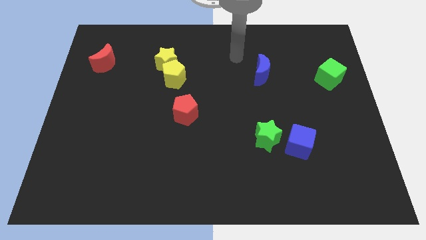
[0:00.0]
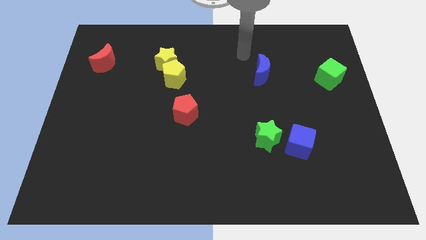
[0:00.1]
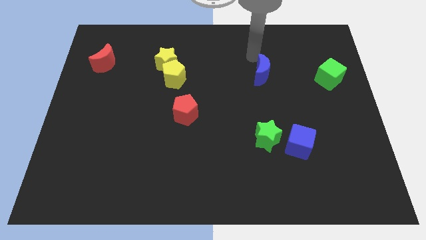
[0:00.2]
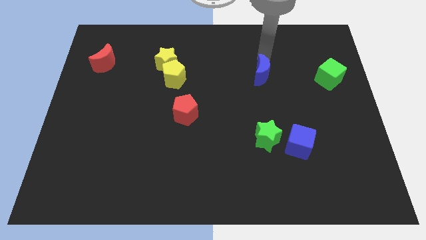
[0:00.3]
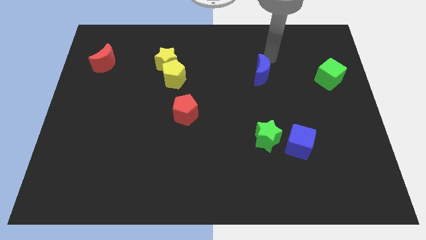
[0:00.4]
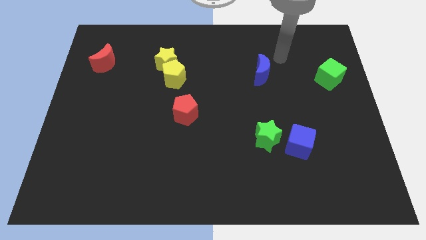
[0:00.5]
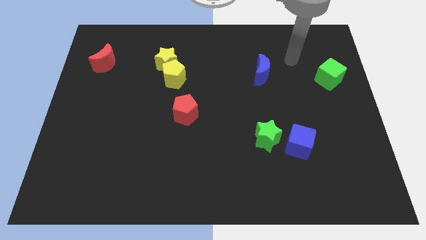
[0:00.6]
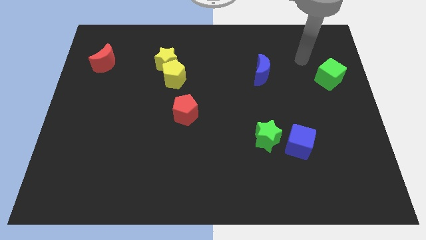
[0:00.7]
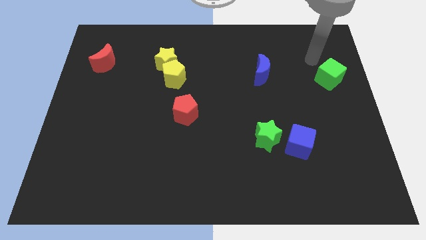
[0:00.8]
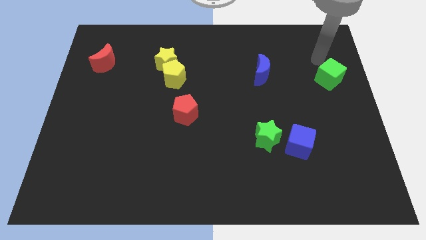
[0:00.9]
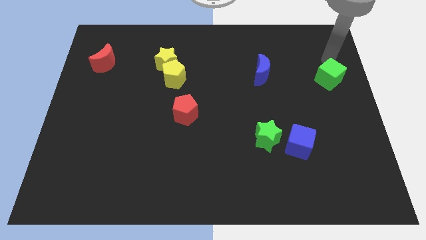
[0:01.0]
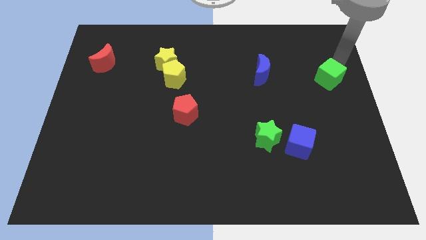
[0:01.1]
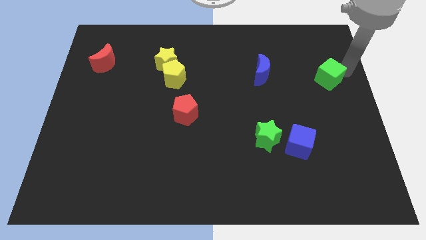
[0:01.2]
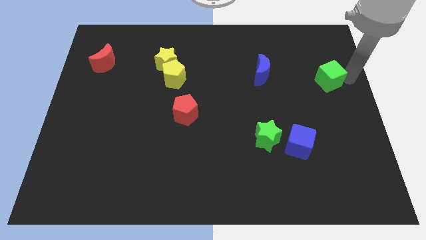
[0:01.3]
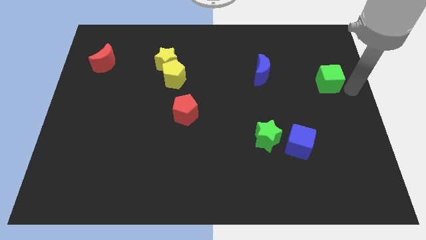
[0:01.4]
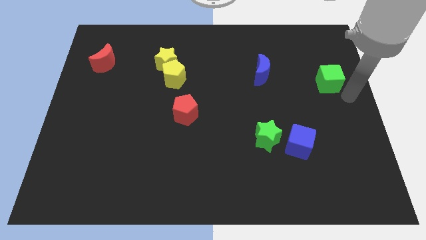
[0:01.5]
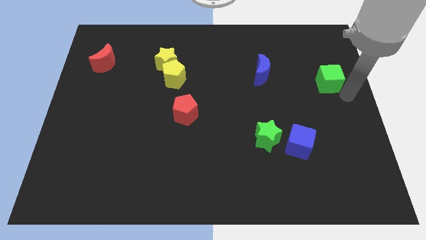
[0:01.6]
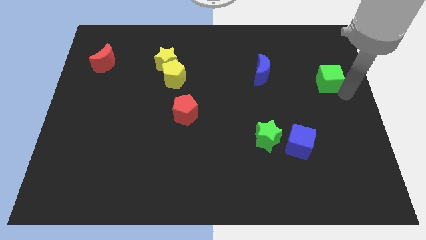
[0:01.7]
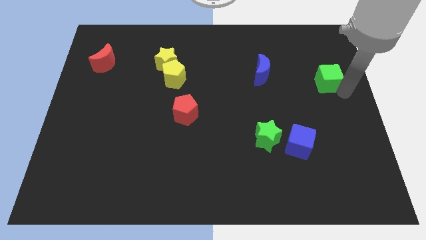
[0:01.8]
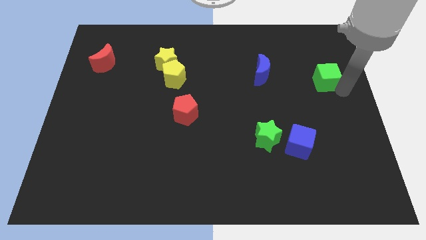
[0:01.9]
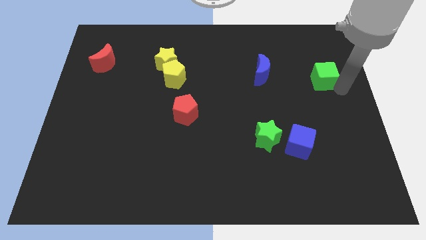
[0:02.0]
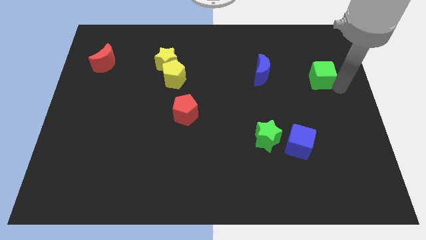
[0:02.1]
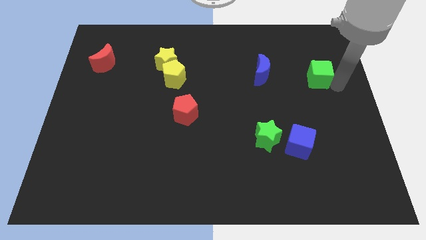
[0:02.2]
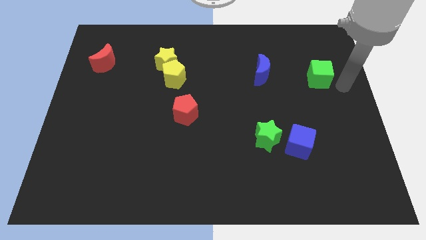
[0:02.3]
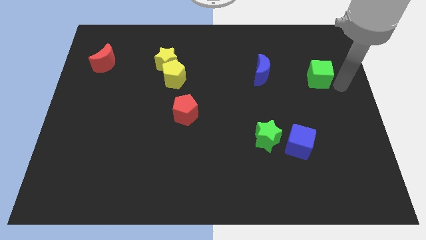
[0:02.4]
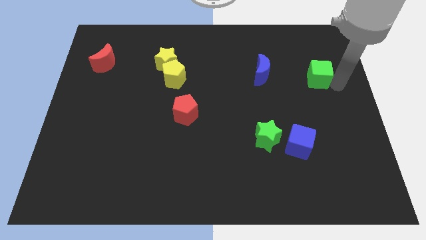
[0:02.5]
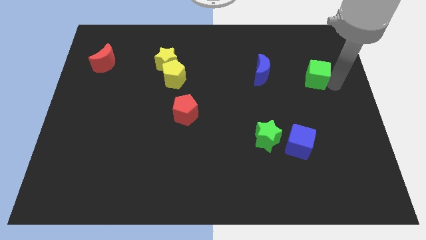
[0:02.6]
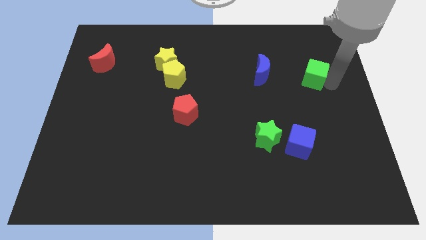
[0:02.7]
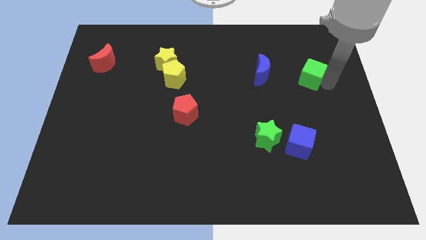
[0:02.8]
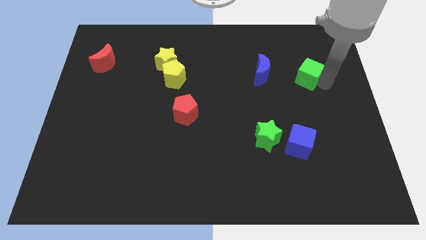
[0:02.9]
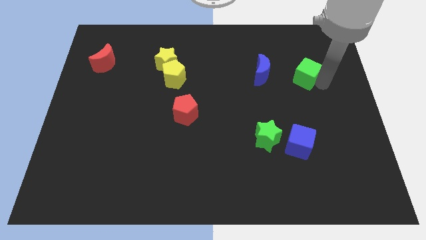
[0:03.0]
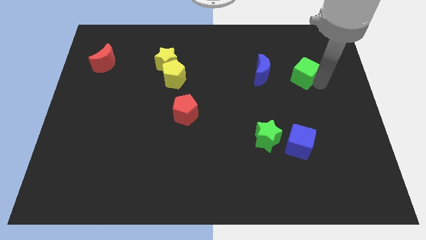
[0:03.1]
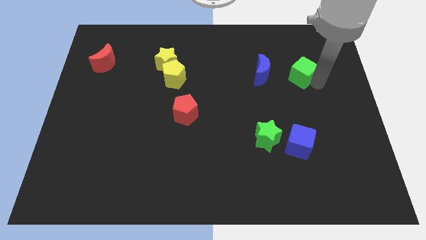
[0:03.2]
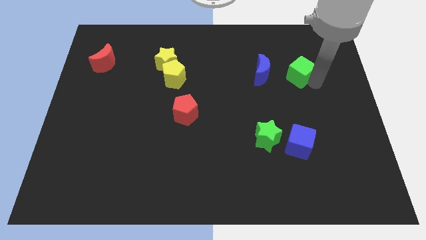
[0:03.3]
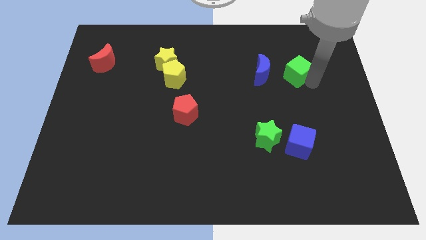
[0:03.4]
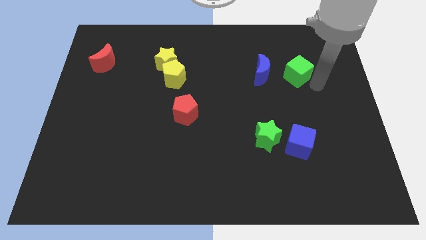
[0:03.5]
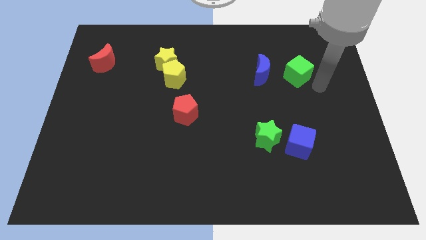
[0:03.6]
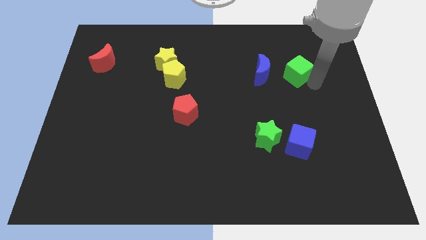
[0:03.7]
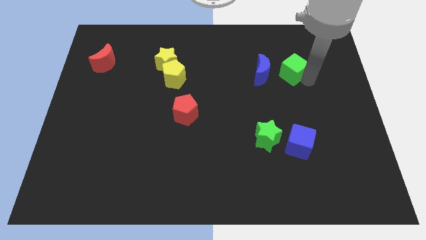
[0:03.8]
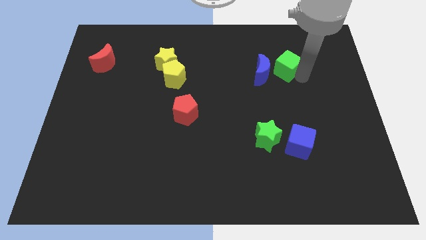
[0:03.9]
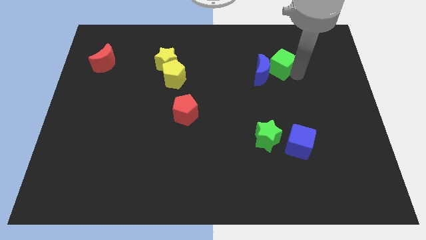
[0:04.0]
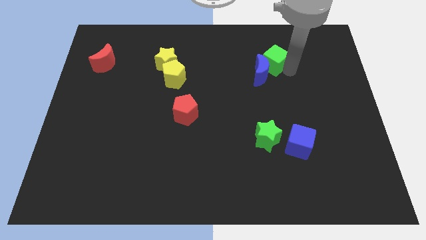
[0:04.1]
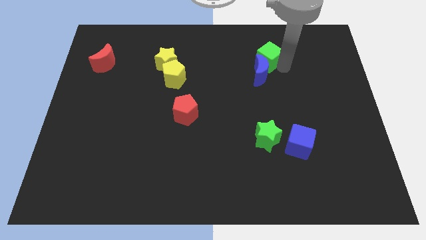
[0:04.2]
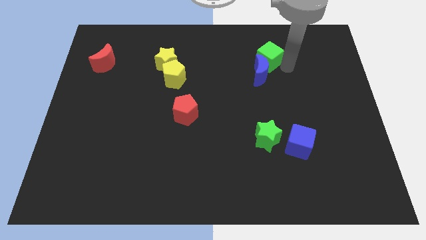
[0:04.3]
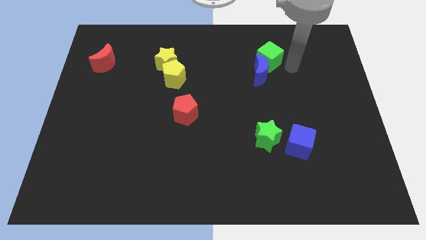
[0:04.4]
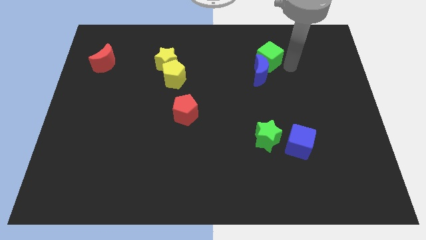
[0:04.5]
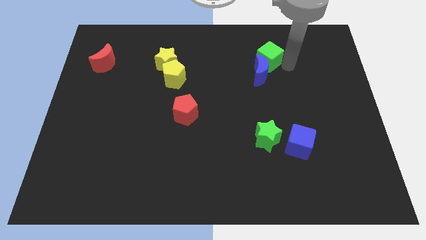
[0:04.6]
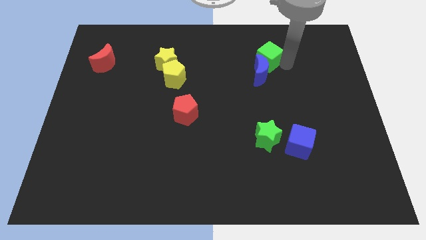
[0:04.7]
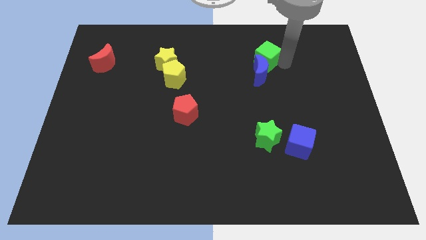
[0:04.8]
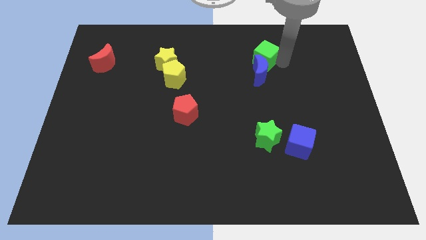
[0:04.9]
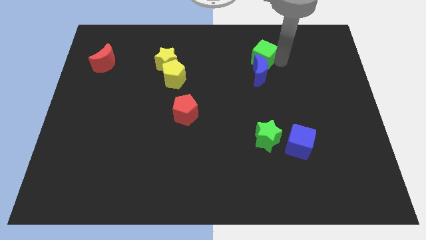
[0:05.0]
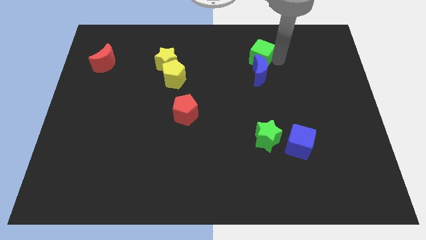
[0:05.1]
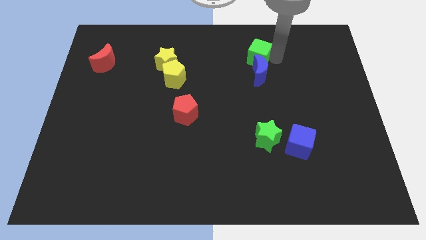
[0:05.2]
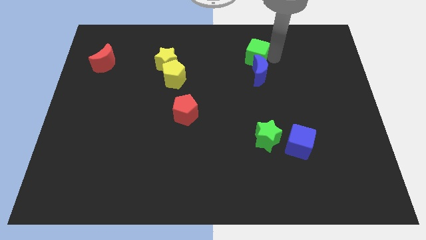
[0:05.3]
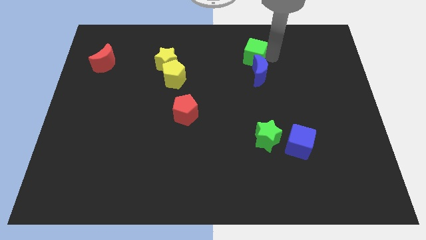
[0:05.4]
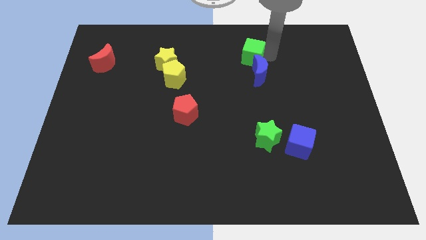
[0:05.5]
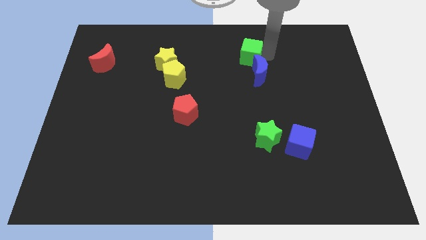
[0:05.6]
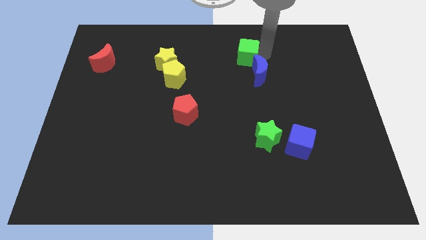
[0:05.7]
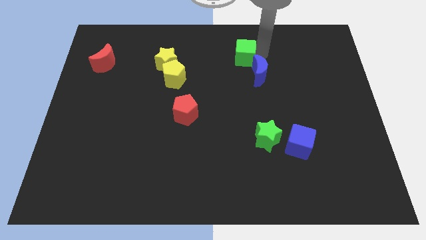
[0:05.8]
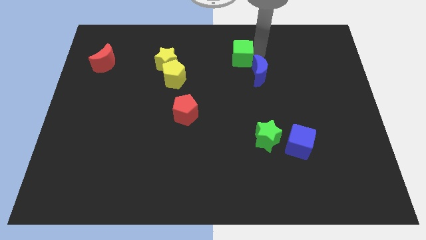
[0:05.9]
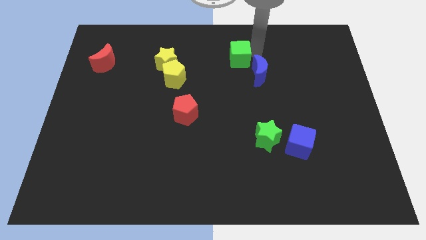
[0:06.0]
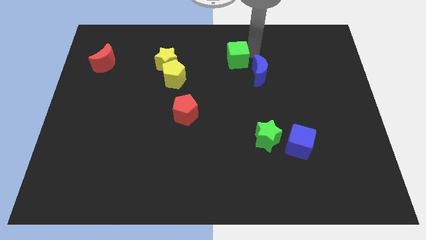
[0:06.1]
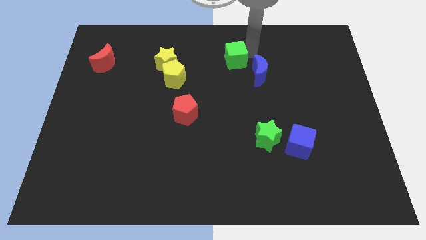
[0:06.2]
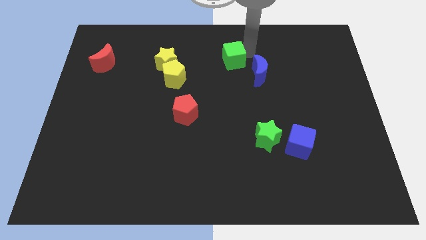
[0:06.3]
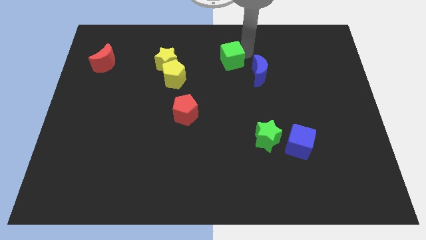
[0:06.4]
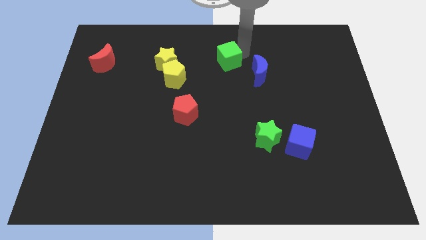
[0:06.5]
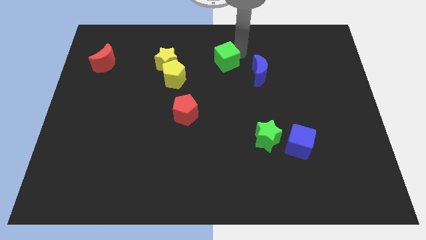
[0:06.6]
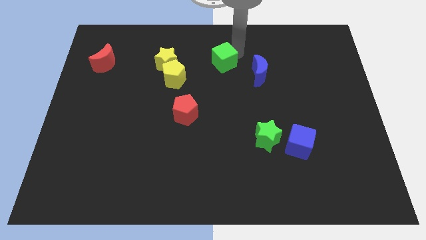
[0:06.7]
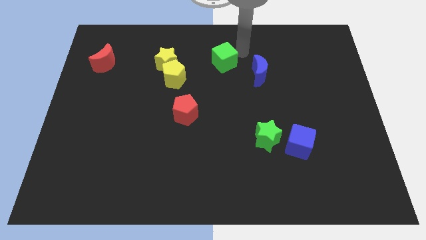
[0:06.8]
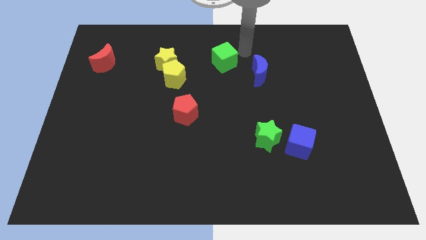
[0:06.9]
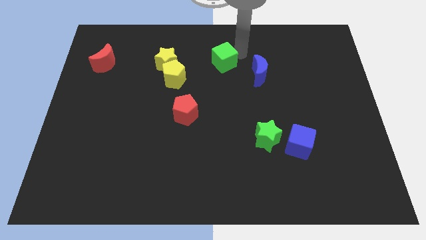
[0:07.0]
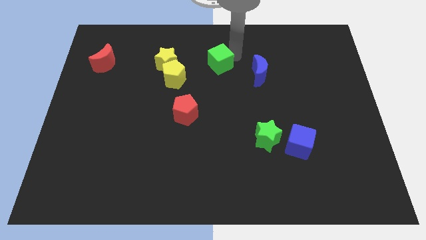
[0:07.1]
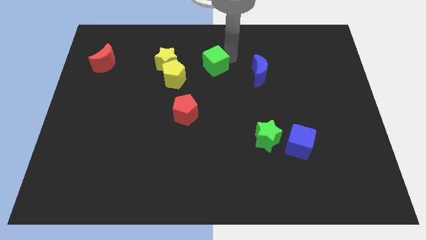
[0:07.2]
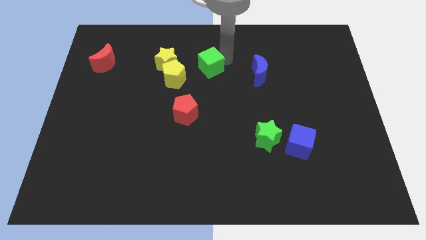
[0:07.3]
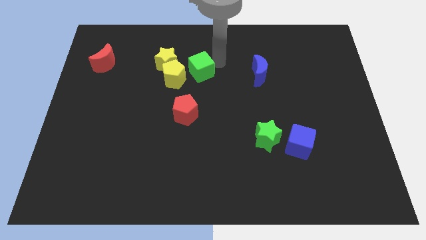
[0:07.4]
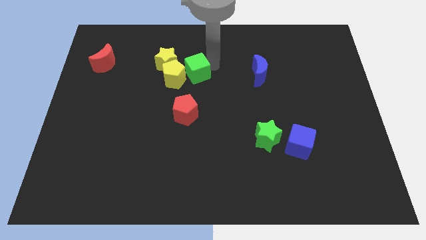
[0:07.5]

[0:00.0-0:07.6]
put the green cube to the yellow pentagon
